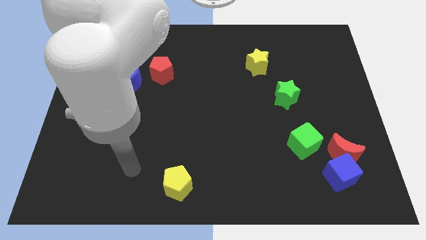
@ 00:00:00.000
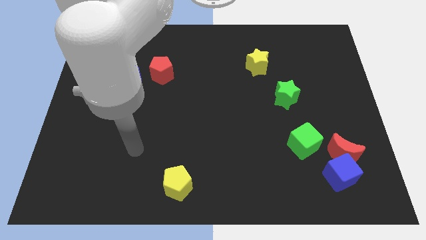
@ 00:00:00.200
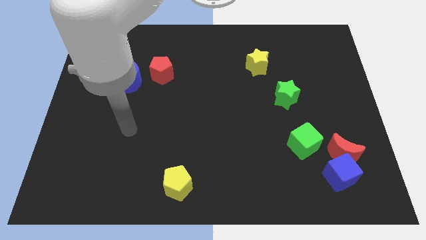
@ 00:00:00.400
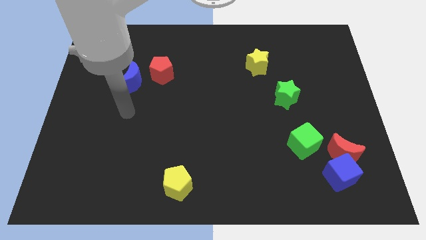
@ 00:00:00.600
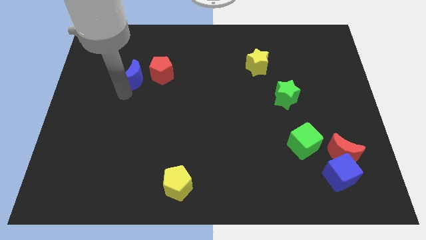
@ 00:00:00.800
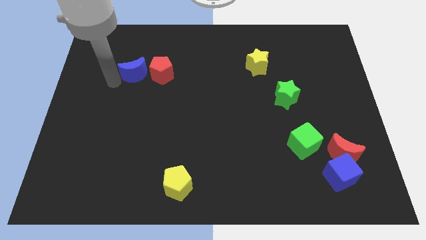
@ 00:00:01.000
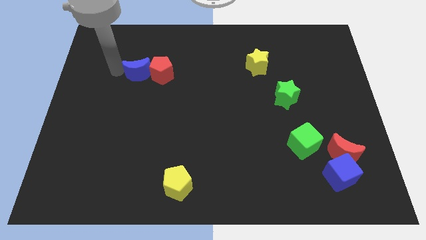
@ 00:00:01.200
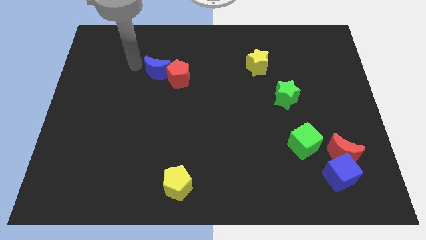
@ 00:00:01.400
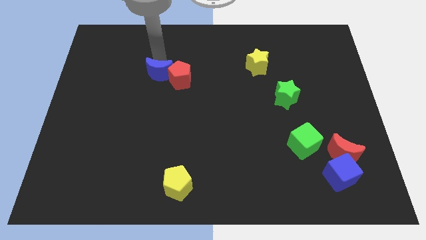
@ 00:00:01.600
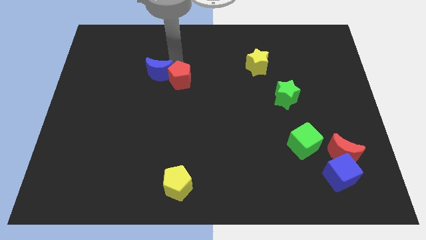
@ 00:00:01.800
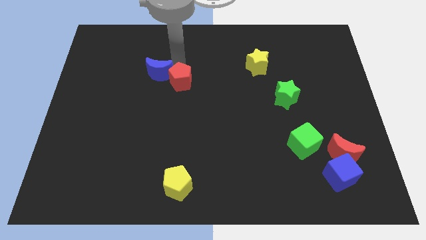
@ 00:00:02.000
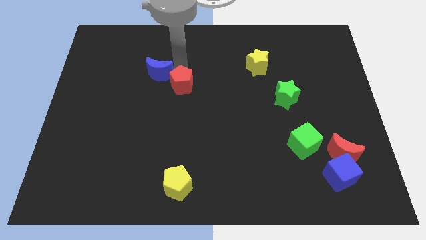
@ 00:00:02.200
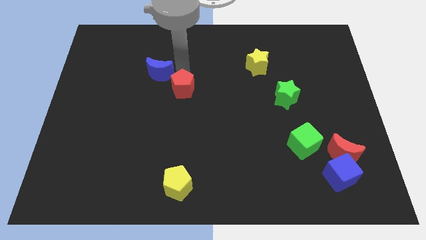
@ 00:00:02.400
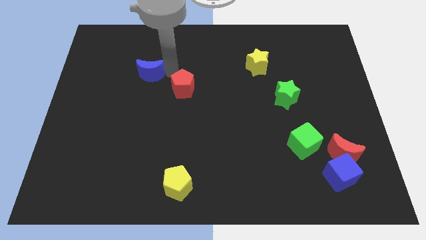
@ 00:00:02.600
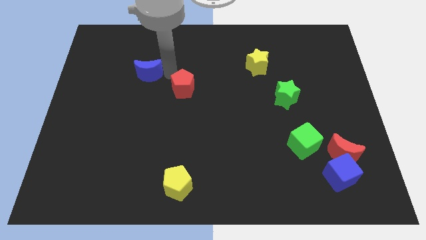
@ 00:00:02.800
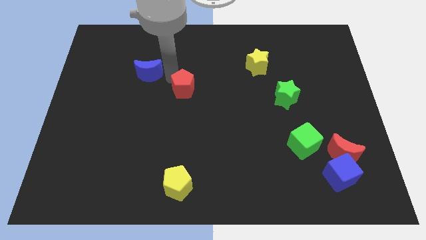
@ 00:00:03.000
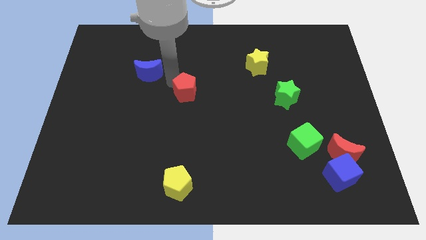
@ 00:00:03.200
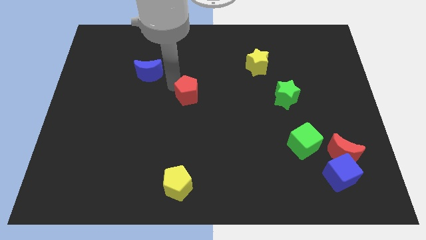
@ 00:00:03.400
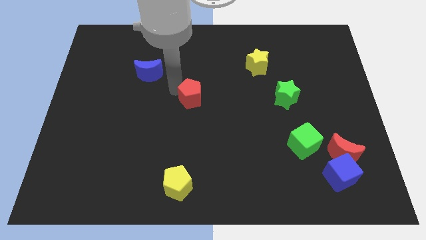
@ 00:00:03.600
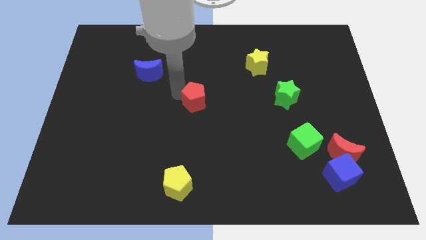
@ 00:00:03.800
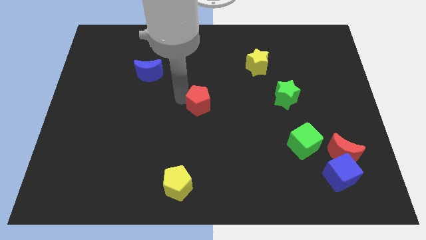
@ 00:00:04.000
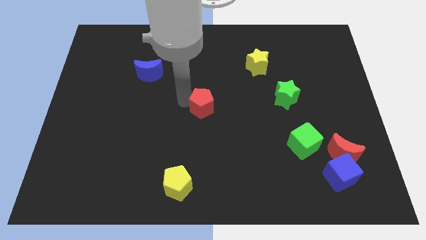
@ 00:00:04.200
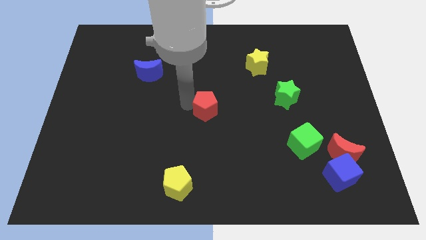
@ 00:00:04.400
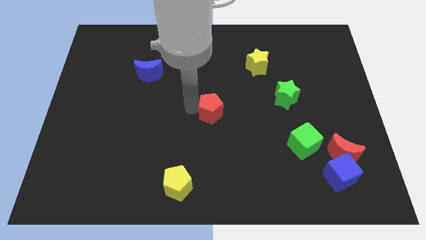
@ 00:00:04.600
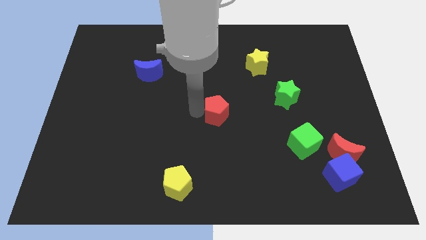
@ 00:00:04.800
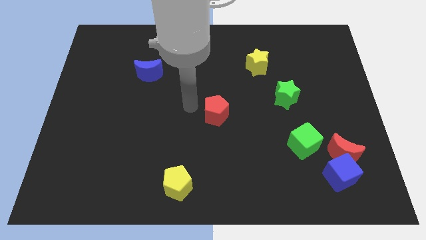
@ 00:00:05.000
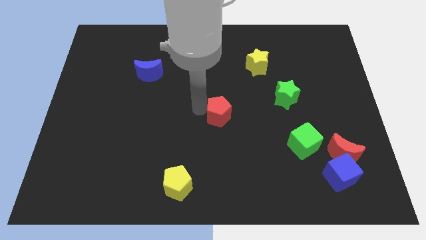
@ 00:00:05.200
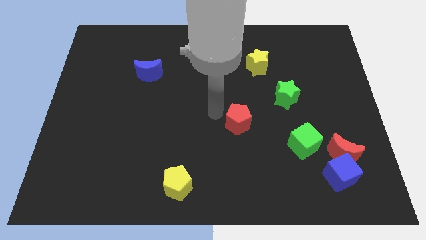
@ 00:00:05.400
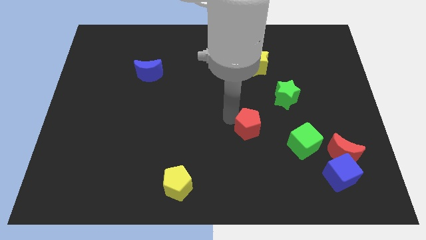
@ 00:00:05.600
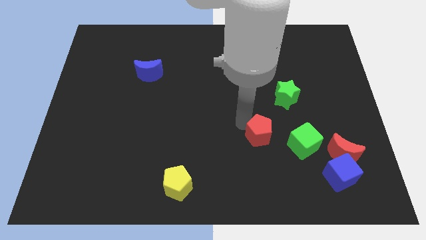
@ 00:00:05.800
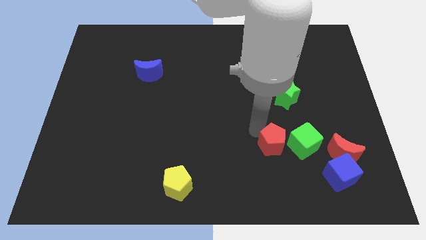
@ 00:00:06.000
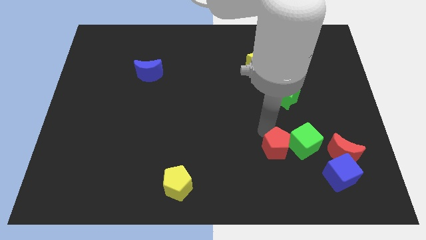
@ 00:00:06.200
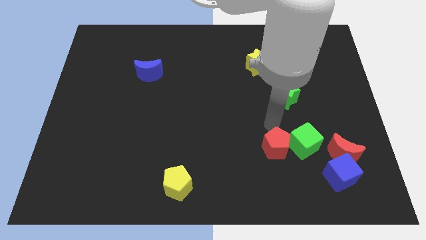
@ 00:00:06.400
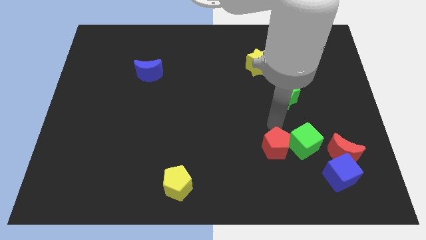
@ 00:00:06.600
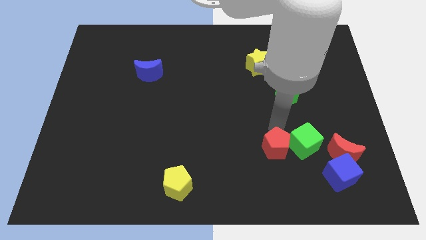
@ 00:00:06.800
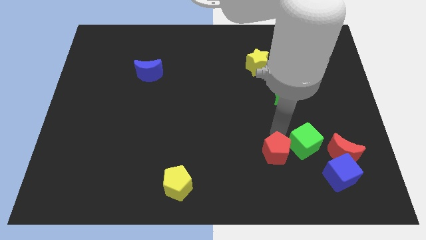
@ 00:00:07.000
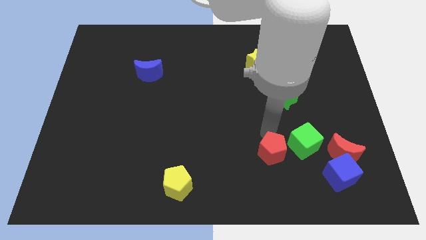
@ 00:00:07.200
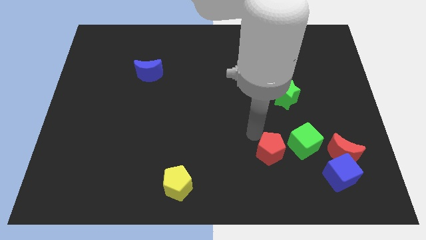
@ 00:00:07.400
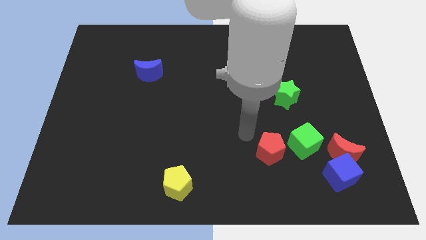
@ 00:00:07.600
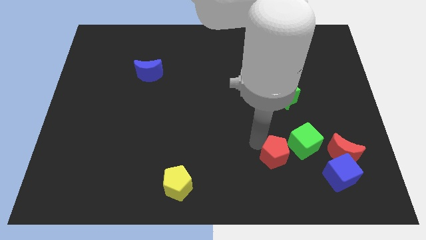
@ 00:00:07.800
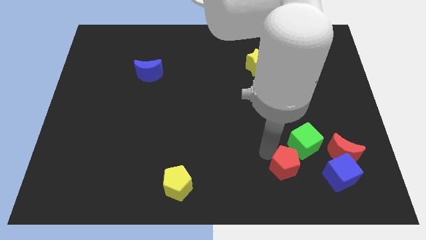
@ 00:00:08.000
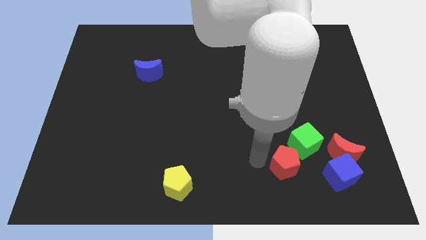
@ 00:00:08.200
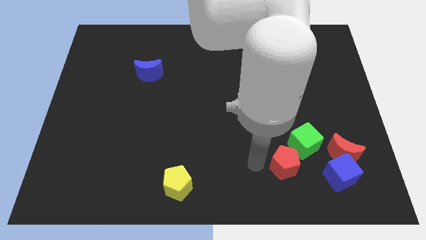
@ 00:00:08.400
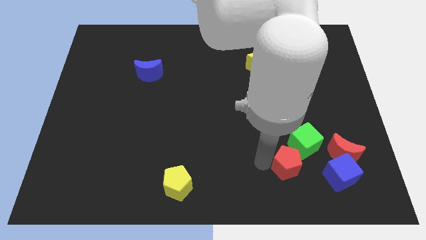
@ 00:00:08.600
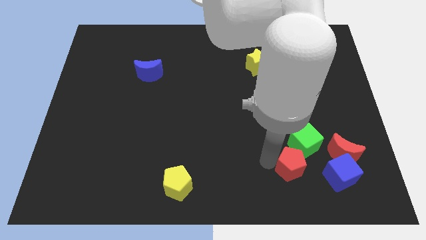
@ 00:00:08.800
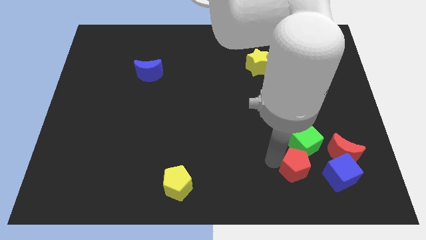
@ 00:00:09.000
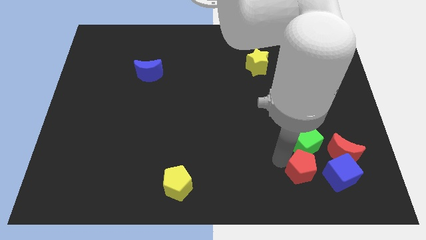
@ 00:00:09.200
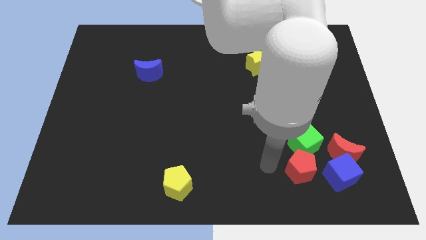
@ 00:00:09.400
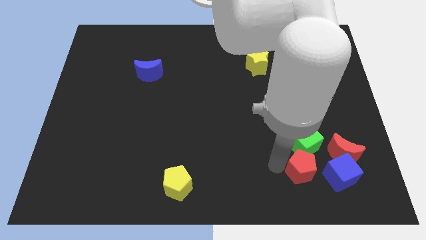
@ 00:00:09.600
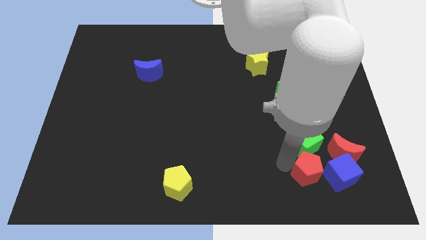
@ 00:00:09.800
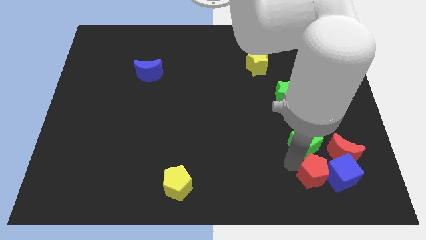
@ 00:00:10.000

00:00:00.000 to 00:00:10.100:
slide the red pentagon towards the blue cube

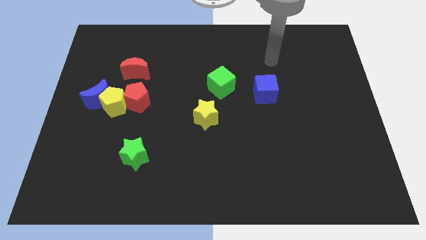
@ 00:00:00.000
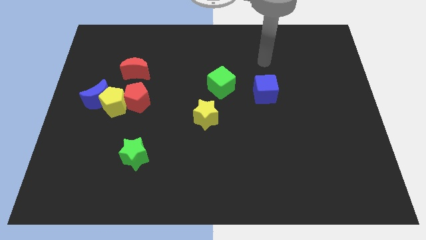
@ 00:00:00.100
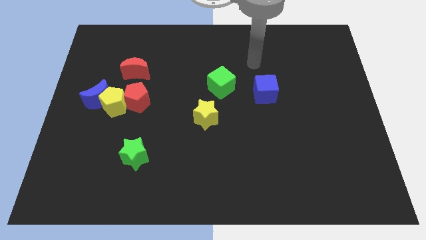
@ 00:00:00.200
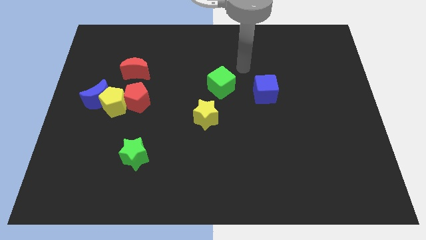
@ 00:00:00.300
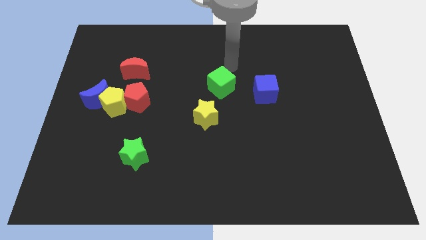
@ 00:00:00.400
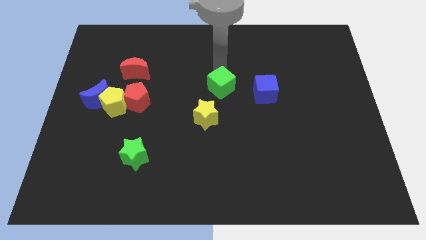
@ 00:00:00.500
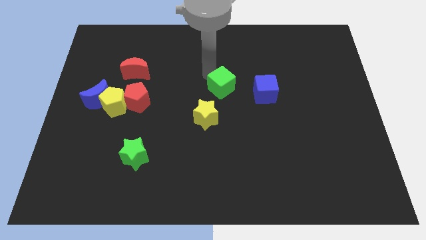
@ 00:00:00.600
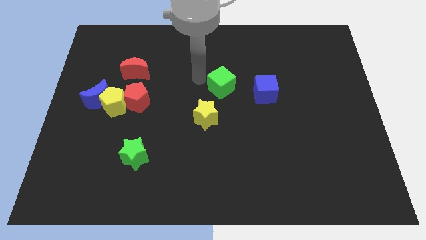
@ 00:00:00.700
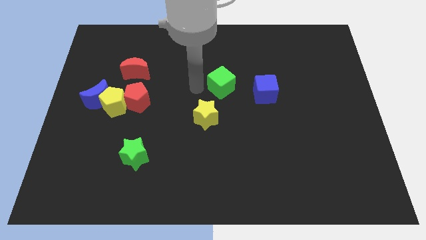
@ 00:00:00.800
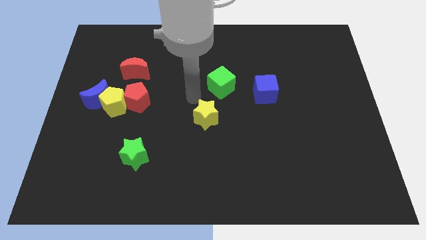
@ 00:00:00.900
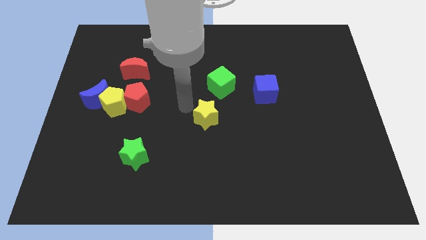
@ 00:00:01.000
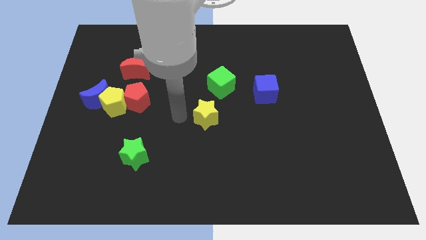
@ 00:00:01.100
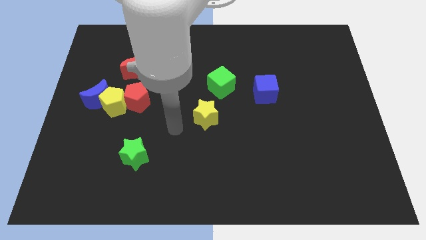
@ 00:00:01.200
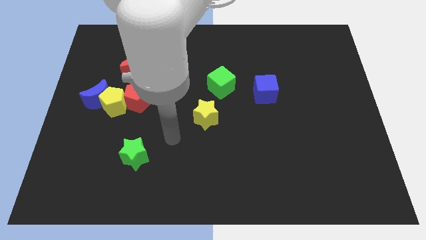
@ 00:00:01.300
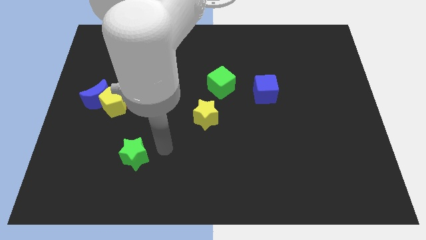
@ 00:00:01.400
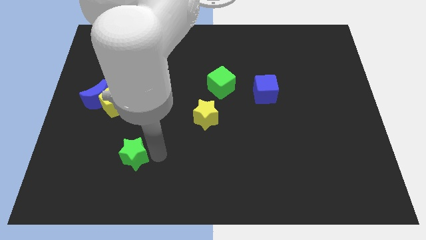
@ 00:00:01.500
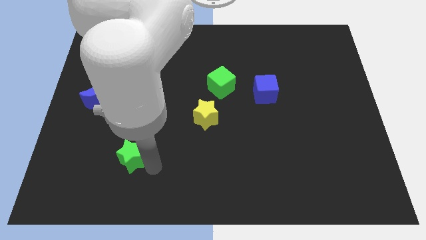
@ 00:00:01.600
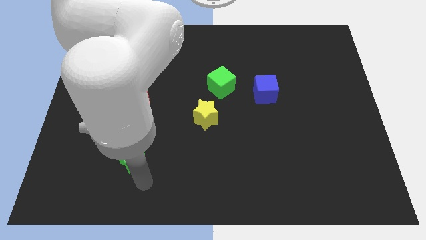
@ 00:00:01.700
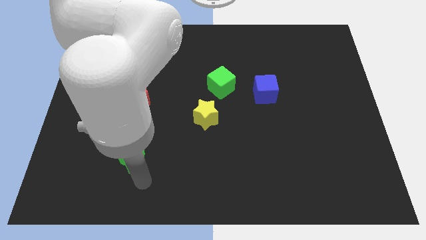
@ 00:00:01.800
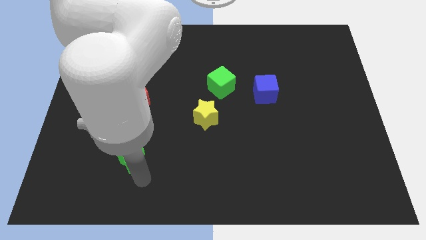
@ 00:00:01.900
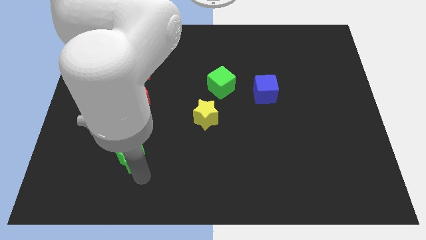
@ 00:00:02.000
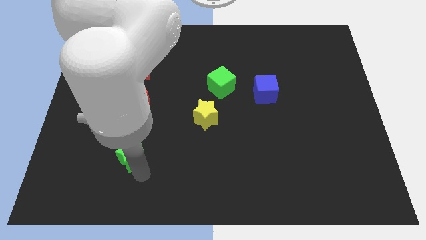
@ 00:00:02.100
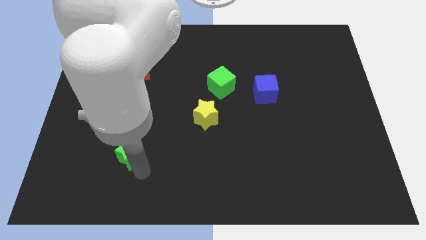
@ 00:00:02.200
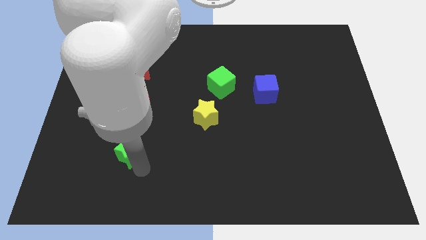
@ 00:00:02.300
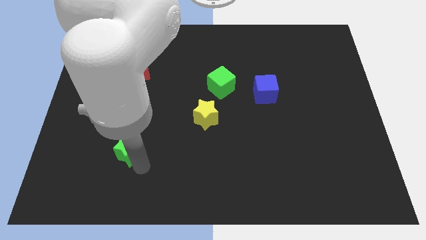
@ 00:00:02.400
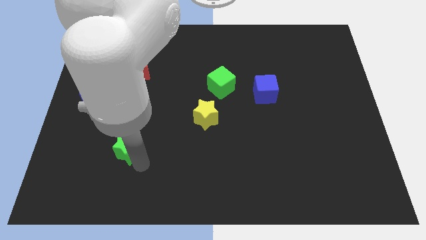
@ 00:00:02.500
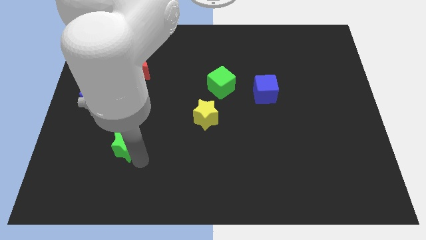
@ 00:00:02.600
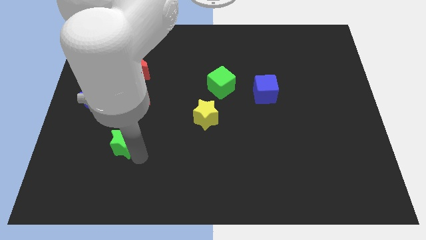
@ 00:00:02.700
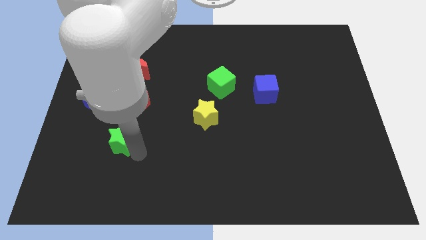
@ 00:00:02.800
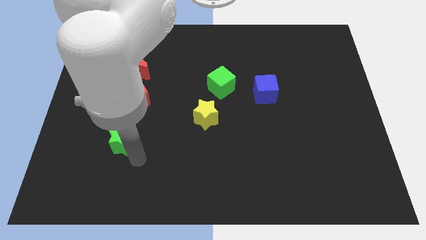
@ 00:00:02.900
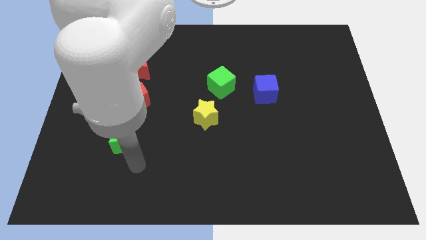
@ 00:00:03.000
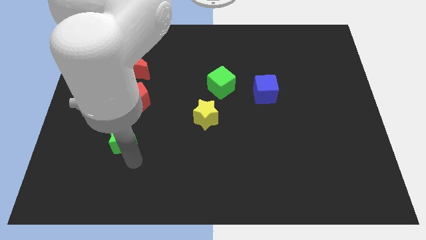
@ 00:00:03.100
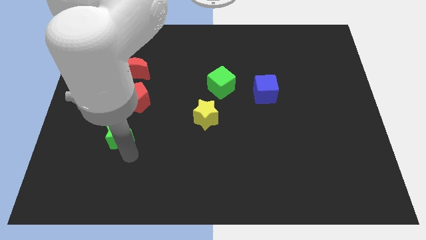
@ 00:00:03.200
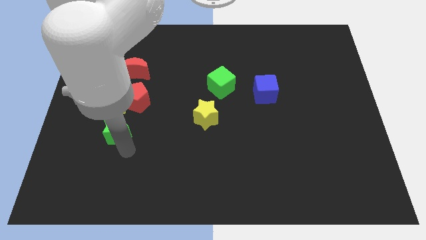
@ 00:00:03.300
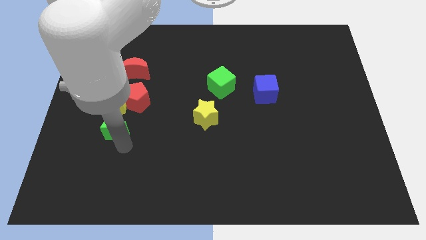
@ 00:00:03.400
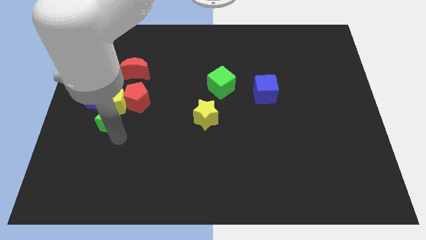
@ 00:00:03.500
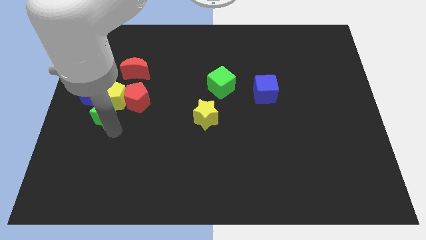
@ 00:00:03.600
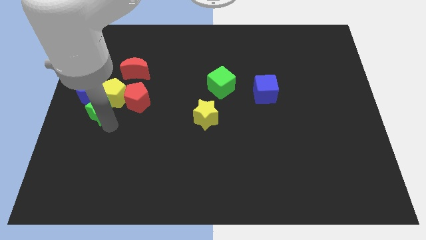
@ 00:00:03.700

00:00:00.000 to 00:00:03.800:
move the green star towards the blue moon
